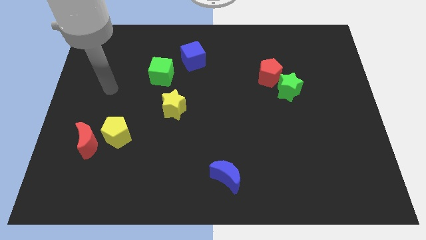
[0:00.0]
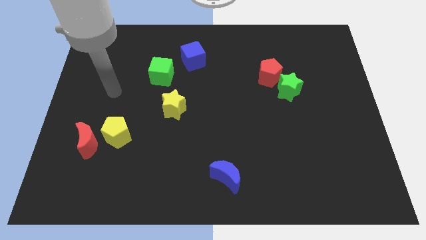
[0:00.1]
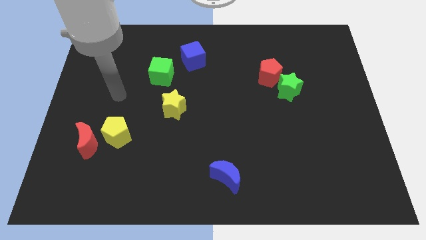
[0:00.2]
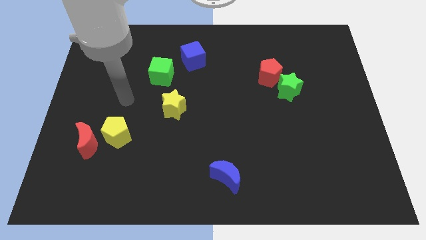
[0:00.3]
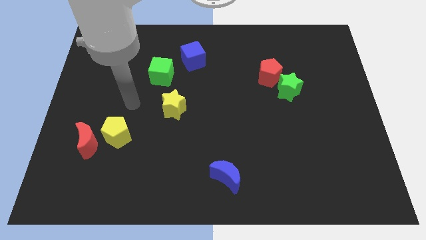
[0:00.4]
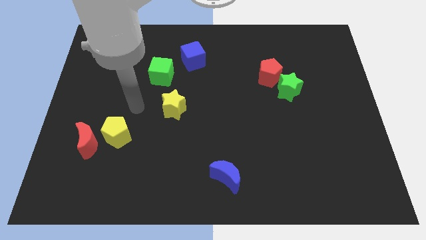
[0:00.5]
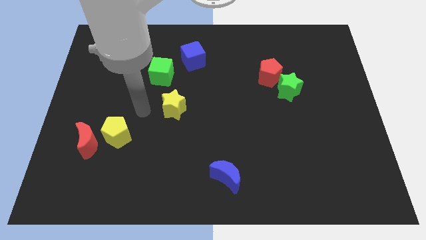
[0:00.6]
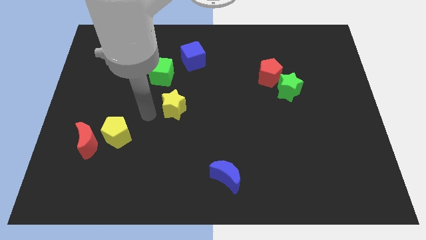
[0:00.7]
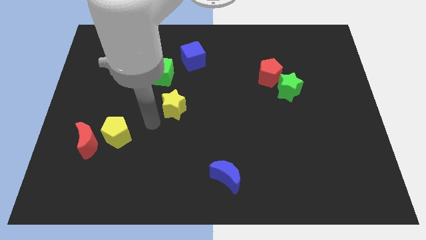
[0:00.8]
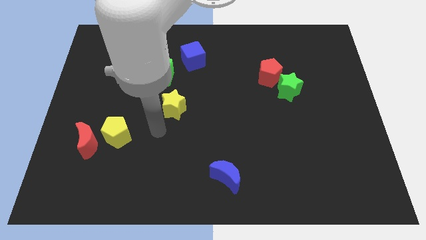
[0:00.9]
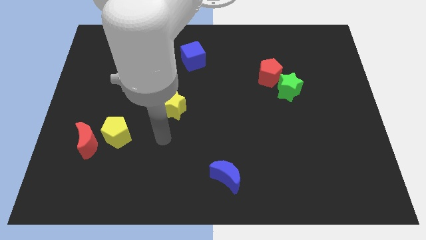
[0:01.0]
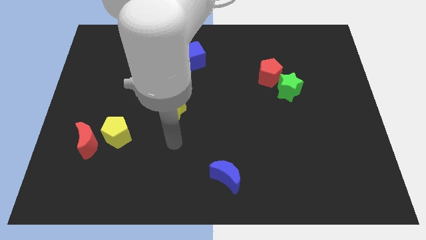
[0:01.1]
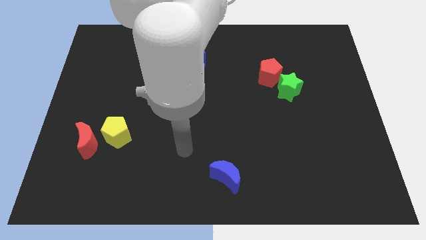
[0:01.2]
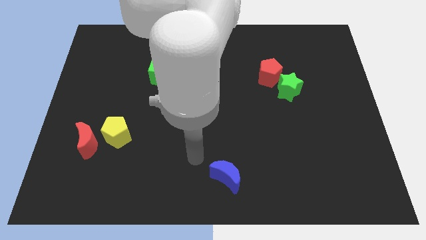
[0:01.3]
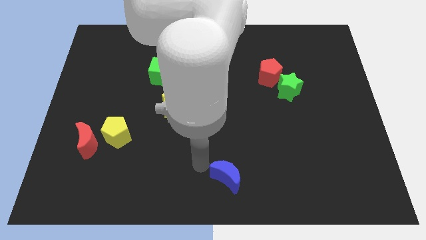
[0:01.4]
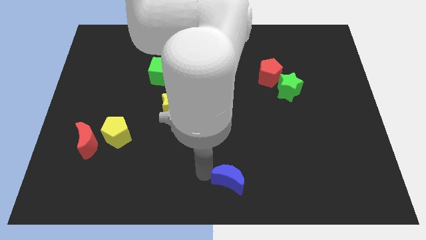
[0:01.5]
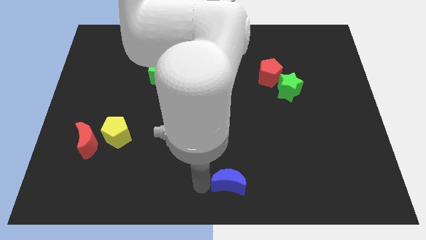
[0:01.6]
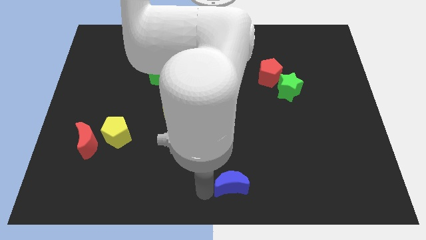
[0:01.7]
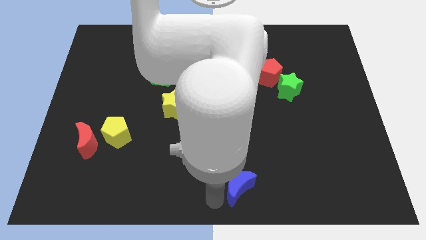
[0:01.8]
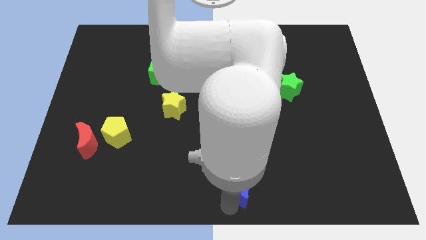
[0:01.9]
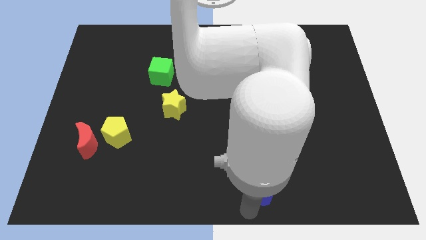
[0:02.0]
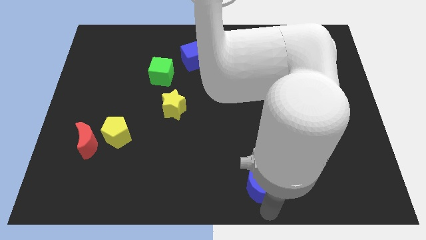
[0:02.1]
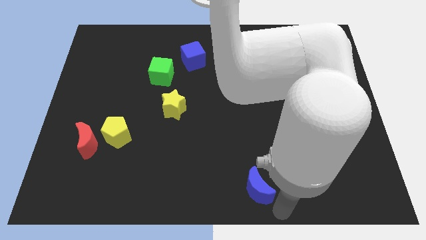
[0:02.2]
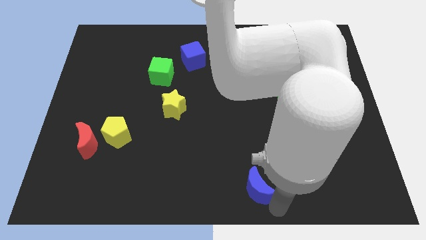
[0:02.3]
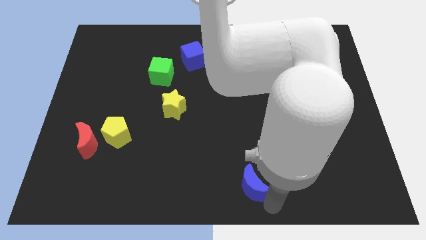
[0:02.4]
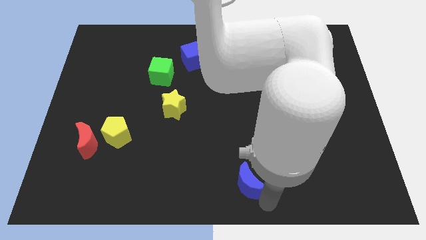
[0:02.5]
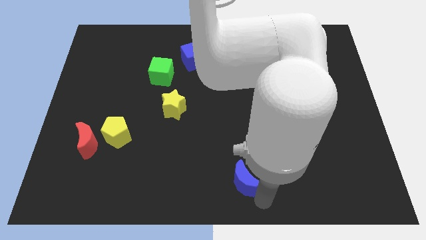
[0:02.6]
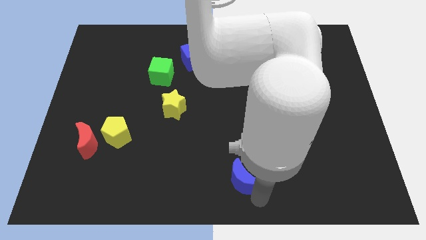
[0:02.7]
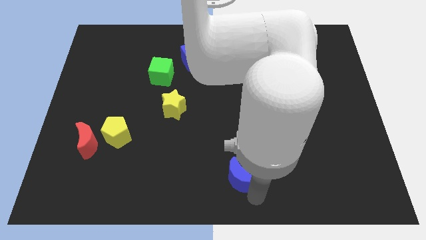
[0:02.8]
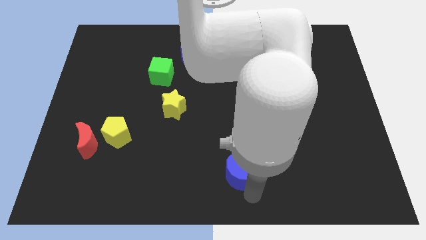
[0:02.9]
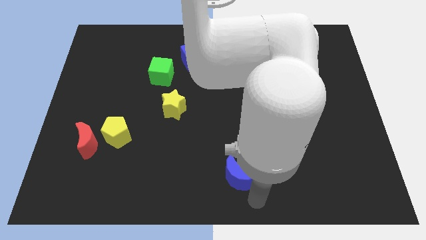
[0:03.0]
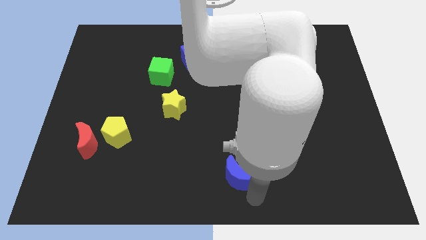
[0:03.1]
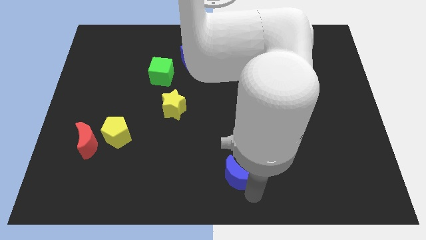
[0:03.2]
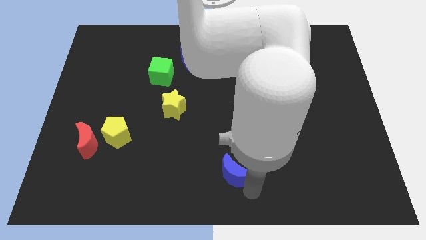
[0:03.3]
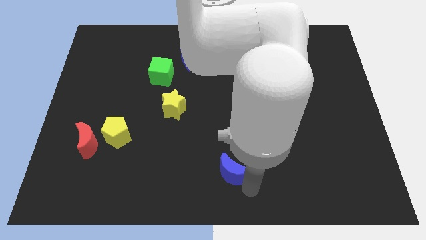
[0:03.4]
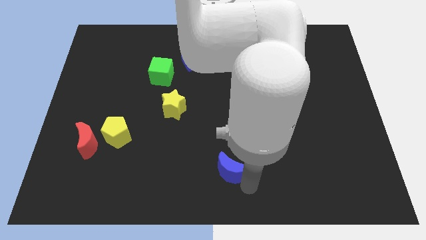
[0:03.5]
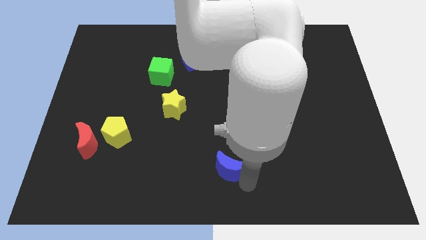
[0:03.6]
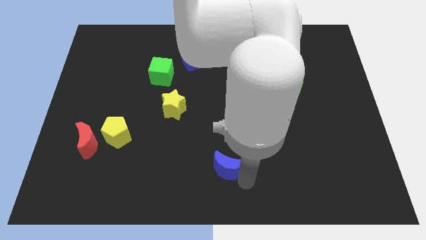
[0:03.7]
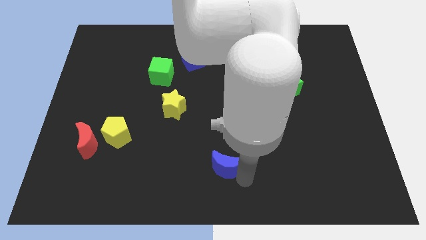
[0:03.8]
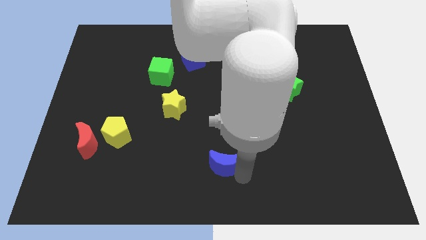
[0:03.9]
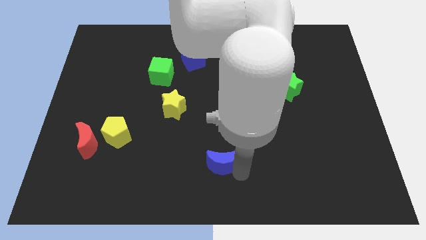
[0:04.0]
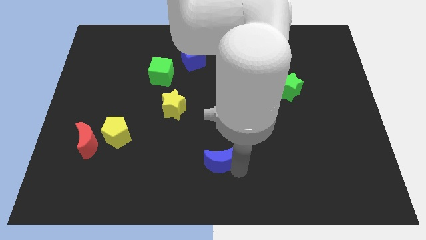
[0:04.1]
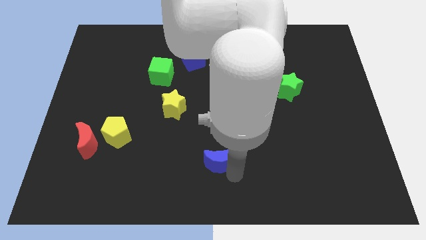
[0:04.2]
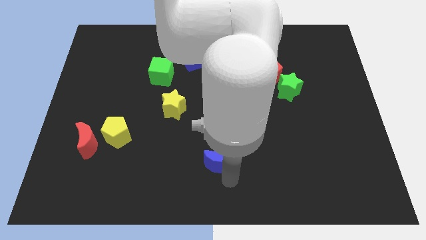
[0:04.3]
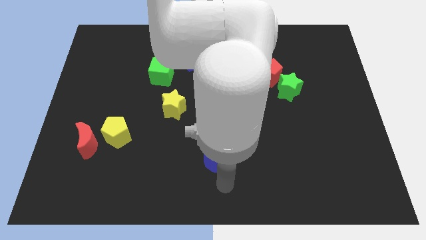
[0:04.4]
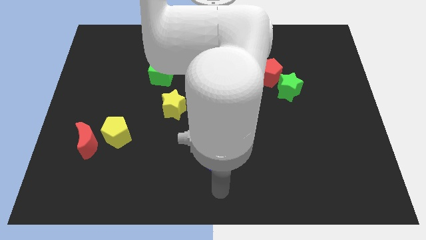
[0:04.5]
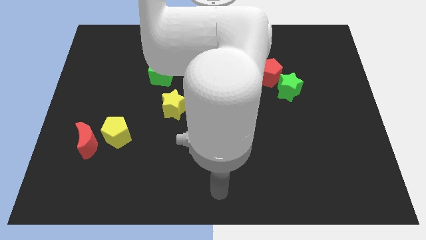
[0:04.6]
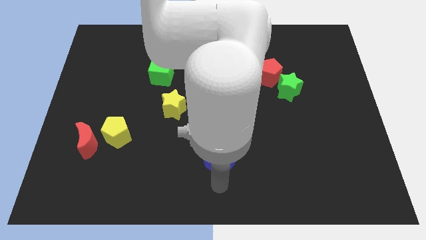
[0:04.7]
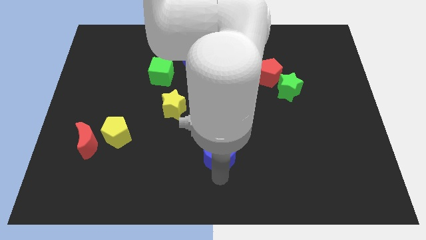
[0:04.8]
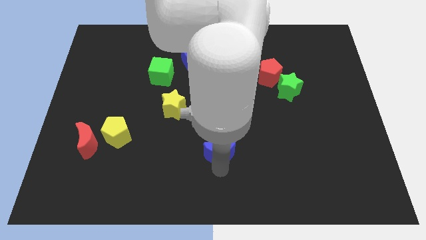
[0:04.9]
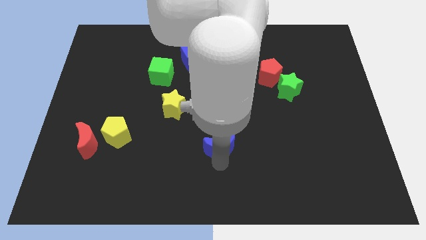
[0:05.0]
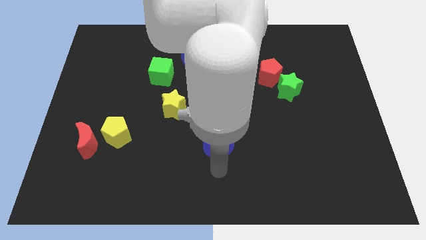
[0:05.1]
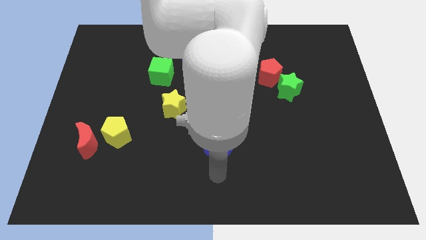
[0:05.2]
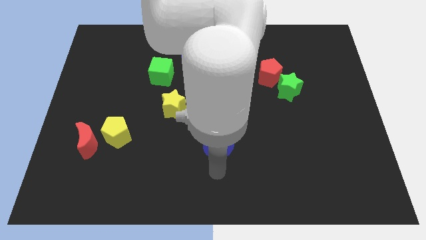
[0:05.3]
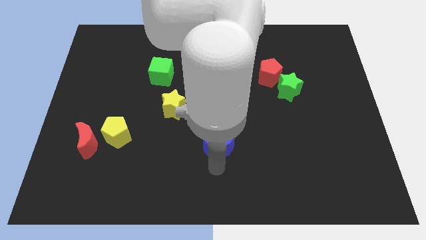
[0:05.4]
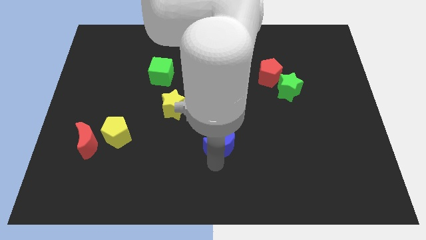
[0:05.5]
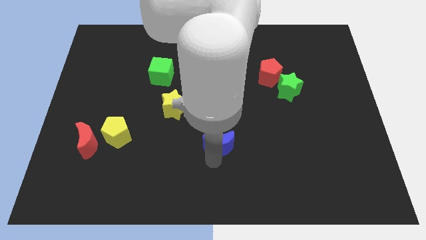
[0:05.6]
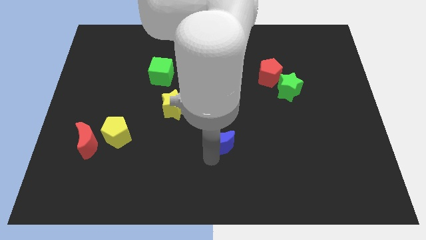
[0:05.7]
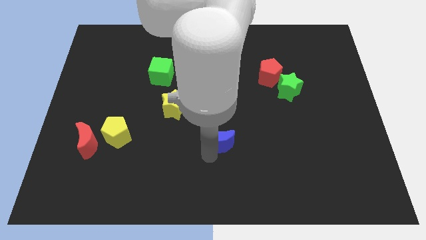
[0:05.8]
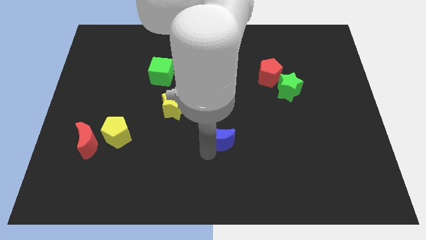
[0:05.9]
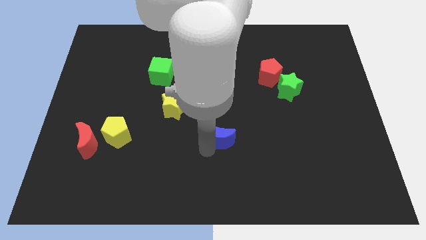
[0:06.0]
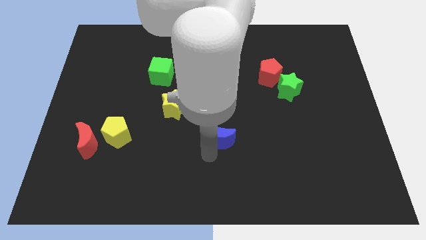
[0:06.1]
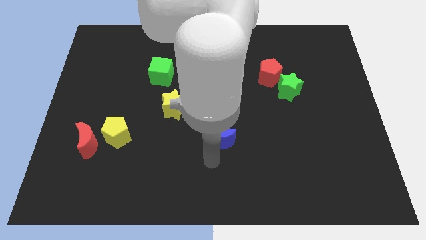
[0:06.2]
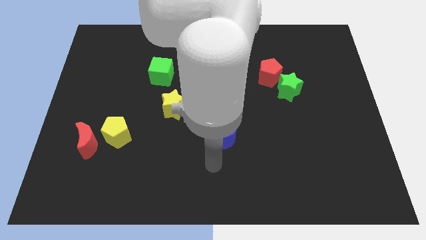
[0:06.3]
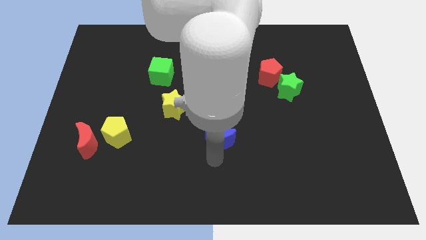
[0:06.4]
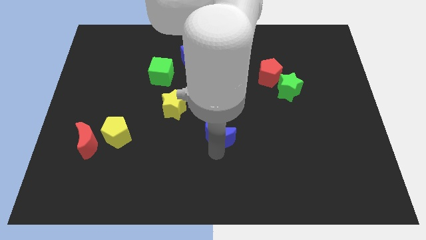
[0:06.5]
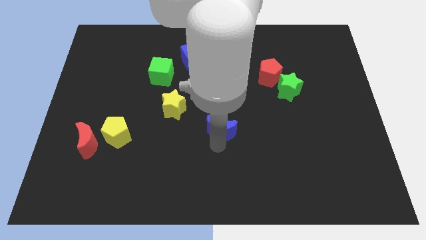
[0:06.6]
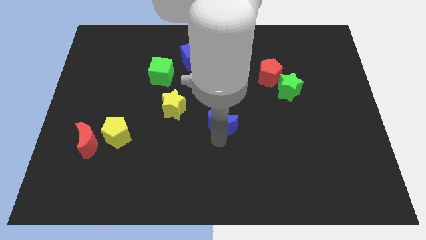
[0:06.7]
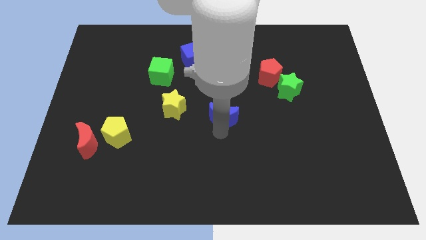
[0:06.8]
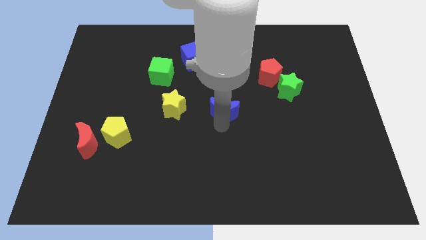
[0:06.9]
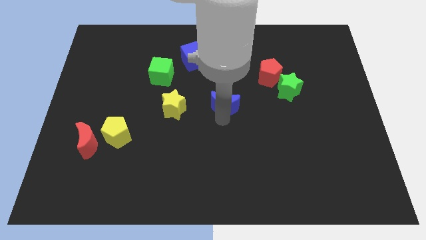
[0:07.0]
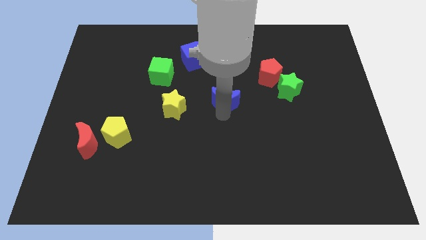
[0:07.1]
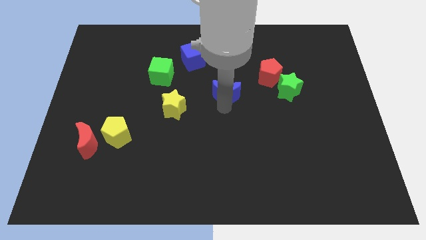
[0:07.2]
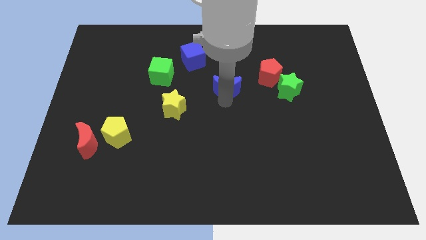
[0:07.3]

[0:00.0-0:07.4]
slide the blue moon just left of the red pentagon

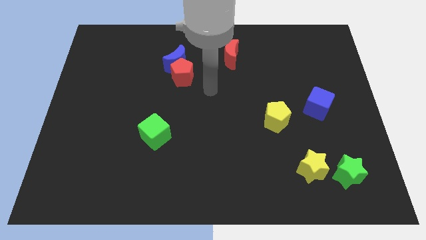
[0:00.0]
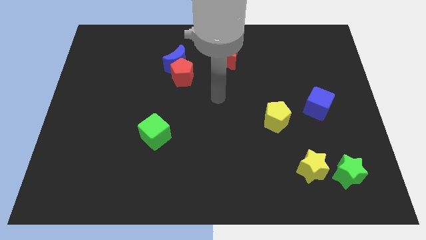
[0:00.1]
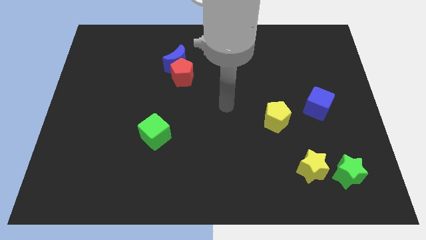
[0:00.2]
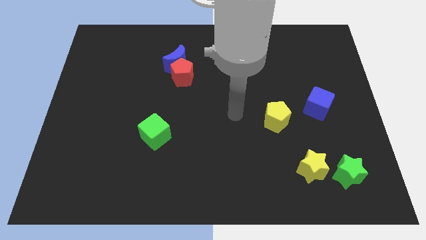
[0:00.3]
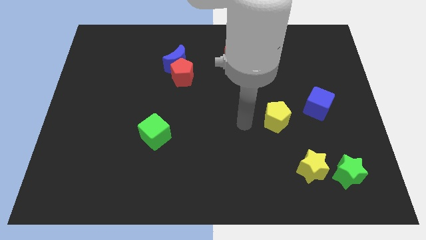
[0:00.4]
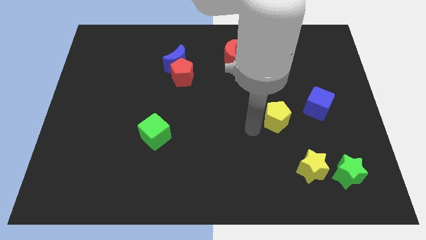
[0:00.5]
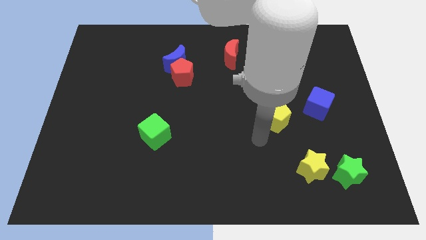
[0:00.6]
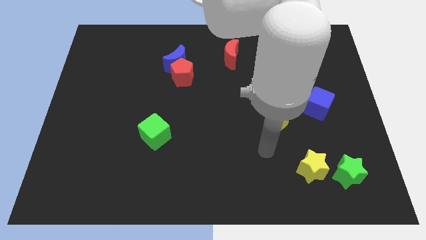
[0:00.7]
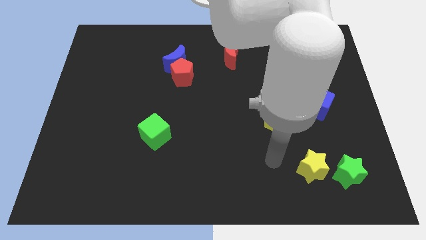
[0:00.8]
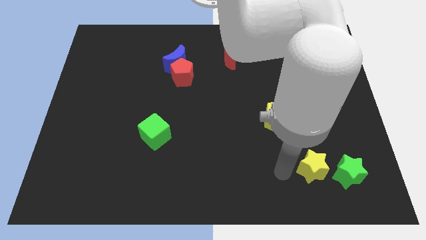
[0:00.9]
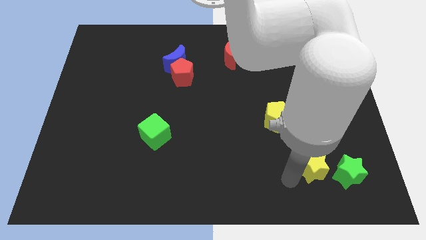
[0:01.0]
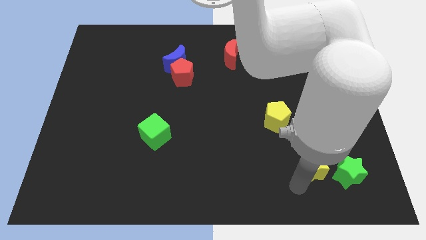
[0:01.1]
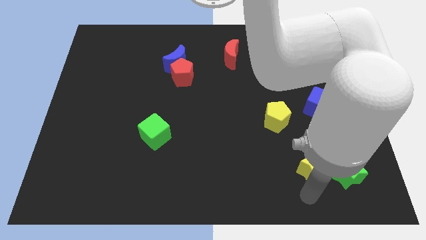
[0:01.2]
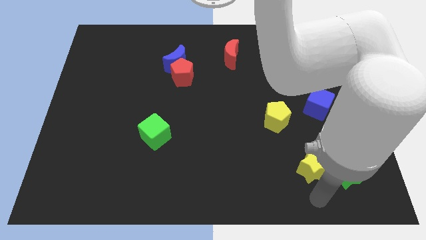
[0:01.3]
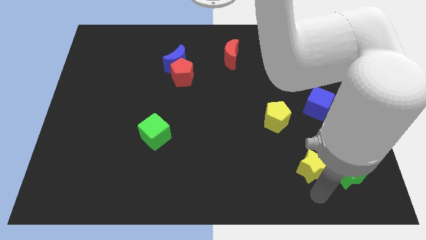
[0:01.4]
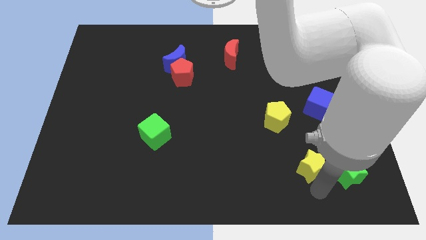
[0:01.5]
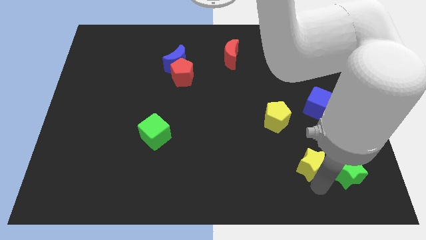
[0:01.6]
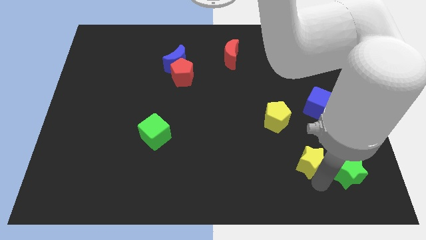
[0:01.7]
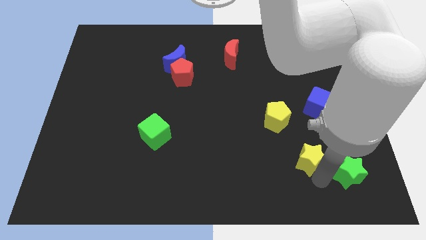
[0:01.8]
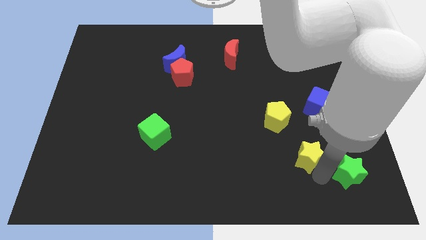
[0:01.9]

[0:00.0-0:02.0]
put the yellow star diagonally down and to the right of the yellow pentagon
